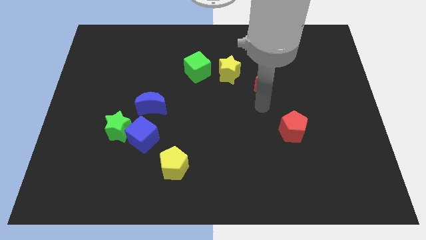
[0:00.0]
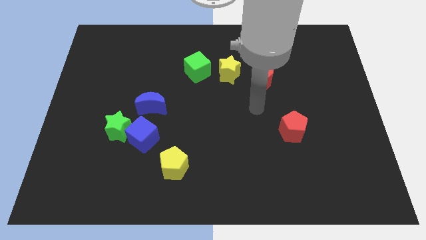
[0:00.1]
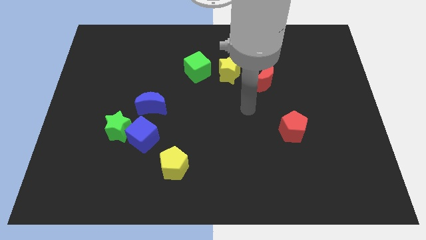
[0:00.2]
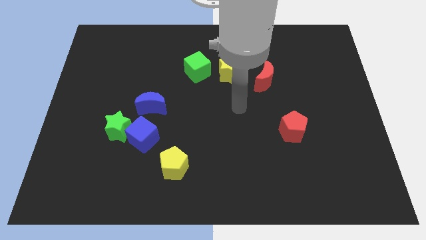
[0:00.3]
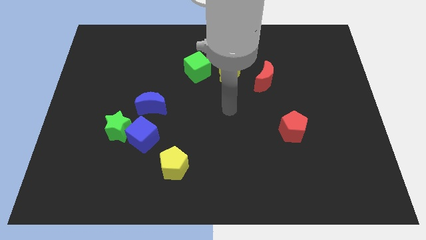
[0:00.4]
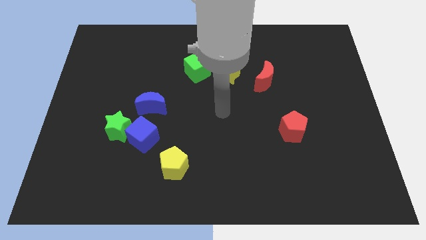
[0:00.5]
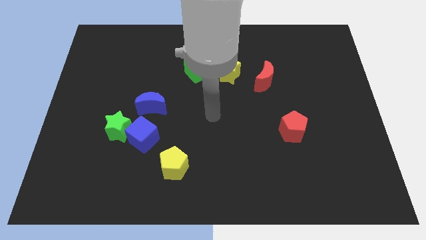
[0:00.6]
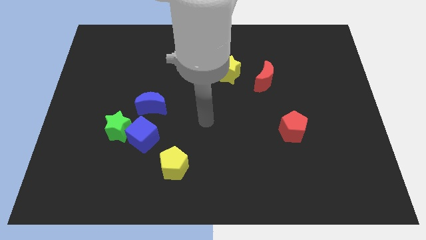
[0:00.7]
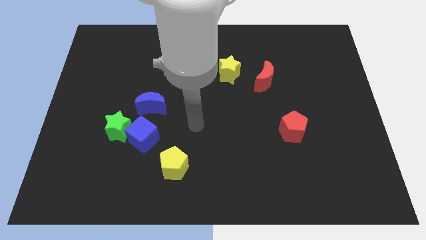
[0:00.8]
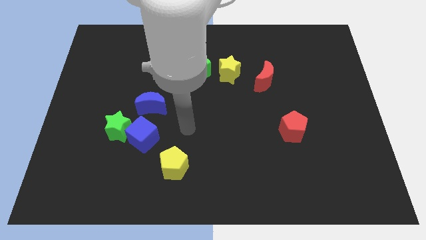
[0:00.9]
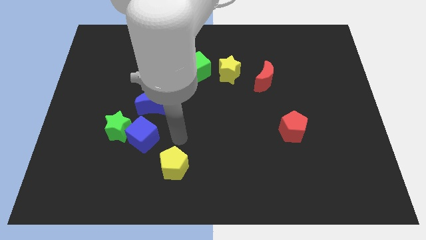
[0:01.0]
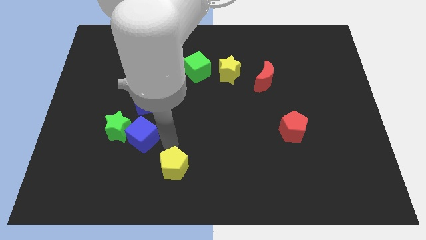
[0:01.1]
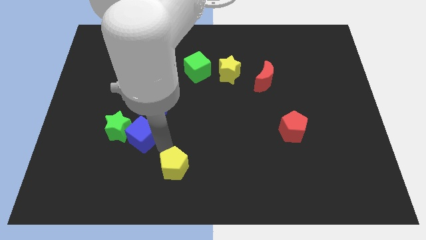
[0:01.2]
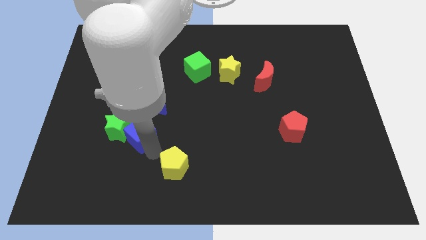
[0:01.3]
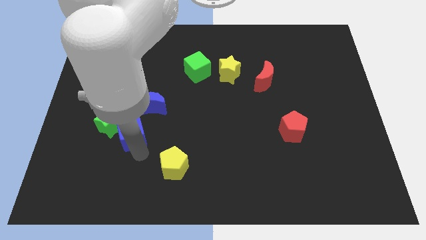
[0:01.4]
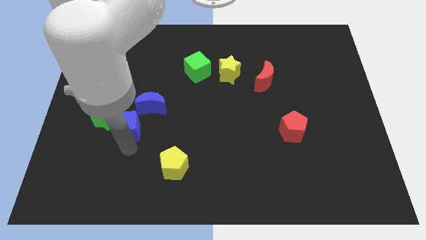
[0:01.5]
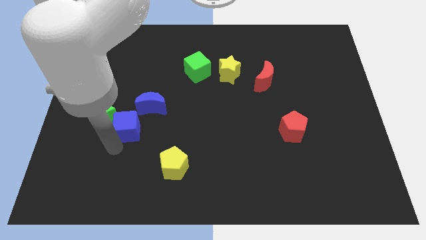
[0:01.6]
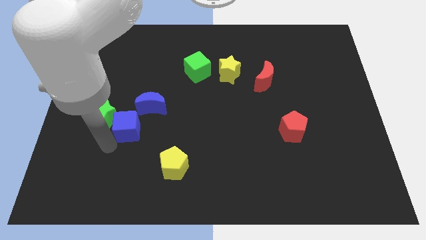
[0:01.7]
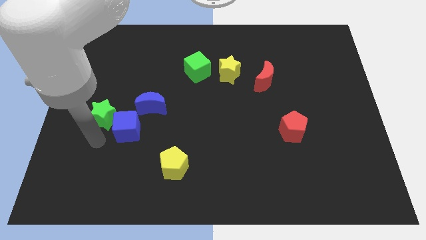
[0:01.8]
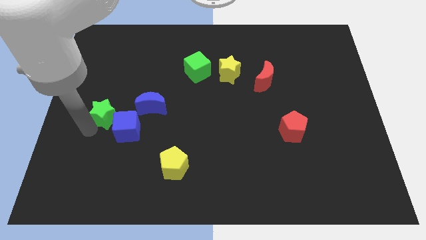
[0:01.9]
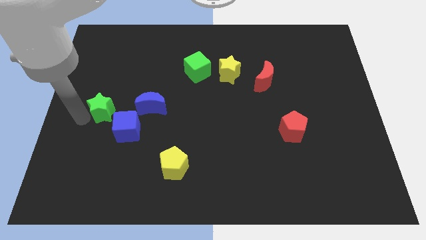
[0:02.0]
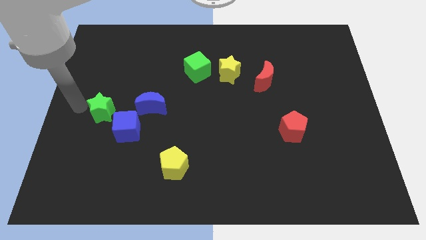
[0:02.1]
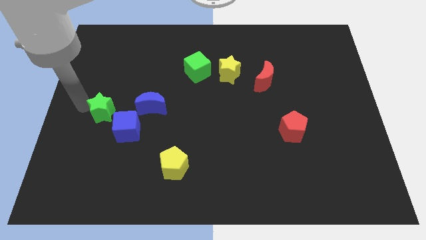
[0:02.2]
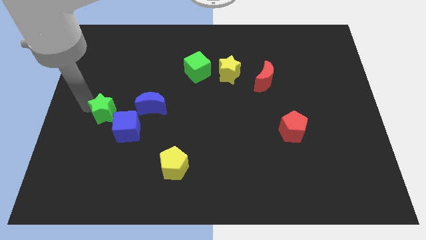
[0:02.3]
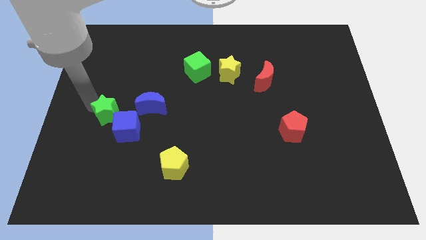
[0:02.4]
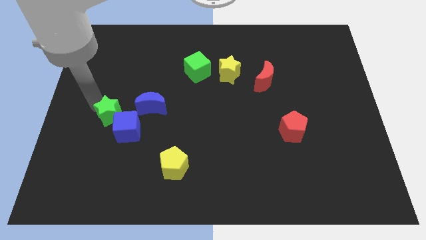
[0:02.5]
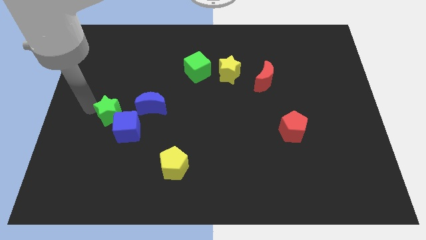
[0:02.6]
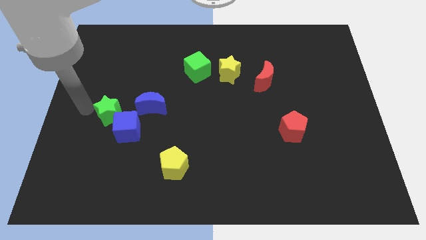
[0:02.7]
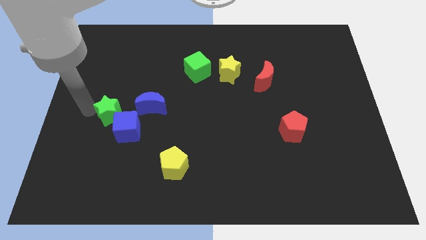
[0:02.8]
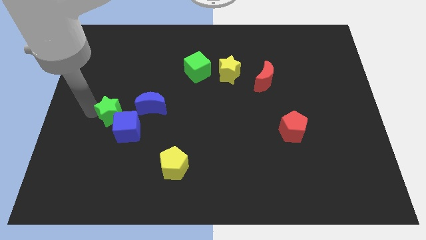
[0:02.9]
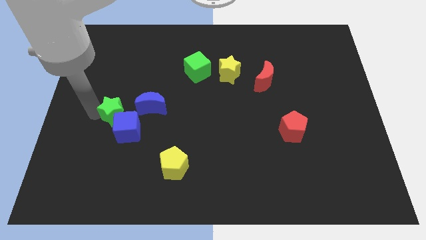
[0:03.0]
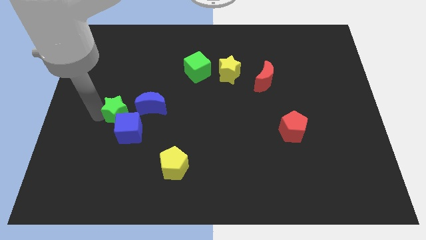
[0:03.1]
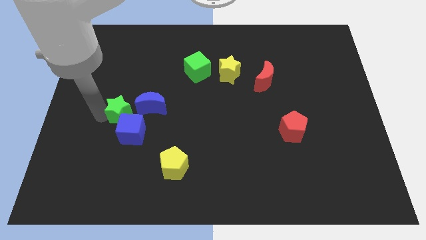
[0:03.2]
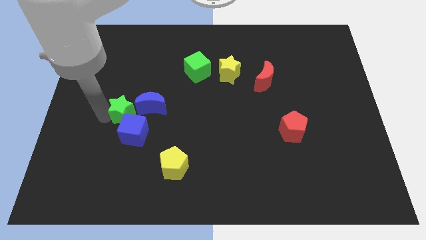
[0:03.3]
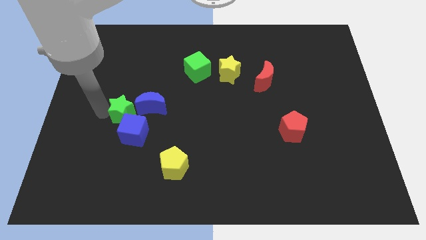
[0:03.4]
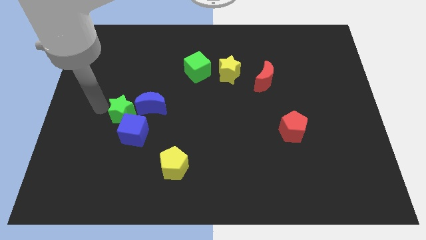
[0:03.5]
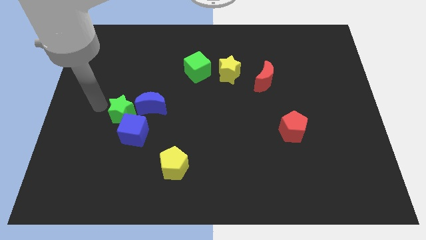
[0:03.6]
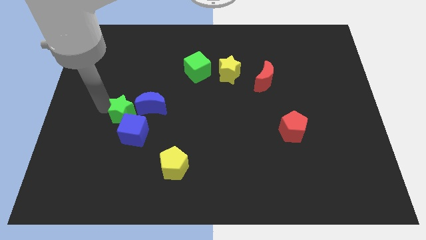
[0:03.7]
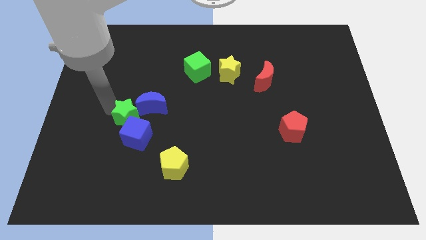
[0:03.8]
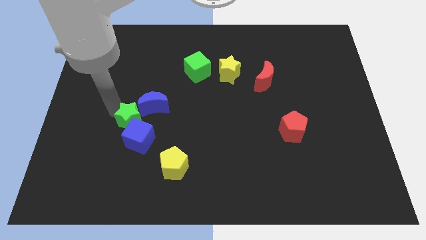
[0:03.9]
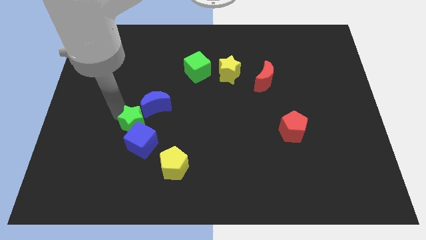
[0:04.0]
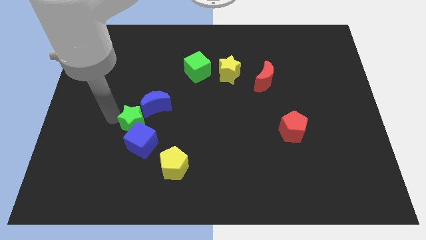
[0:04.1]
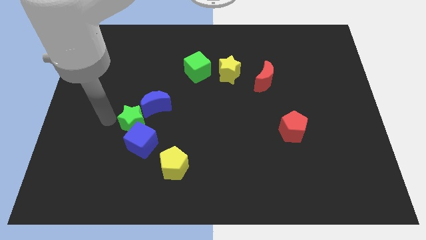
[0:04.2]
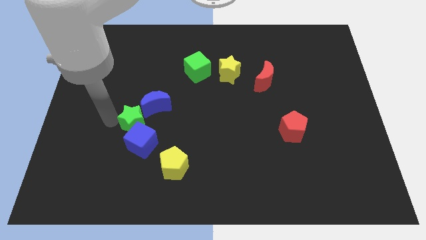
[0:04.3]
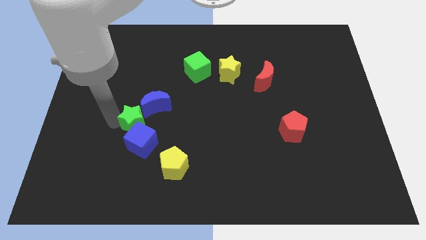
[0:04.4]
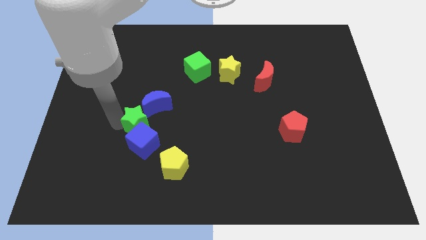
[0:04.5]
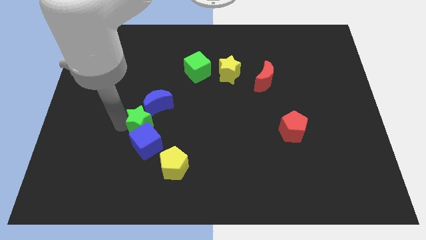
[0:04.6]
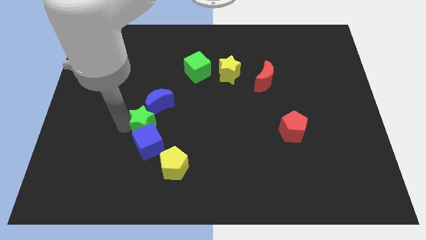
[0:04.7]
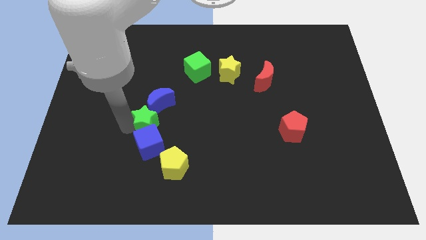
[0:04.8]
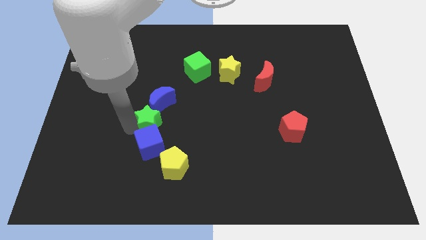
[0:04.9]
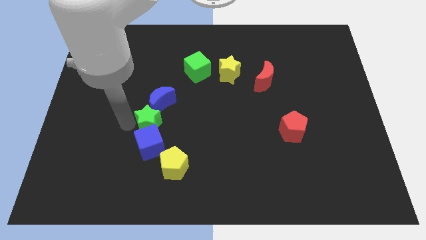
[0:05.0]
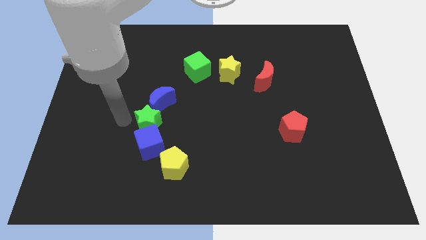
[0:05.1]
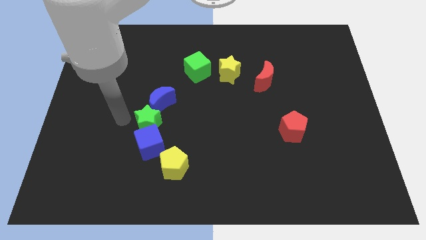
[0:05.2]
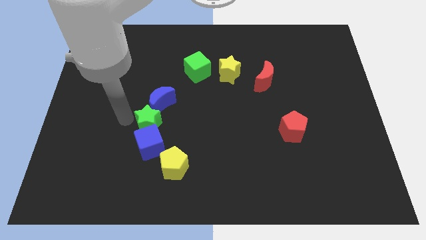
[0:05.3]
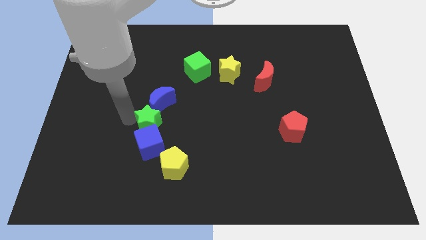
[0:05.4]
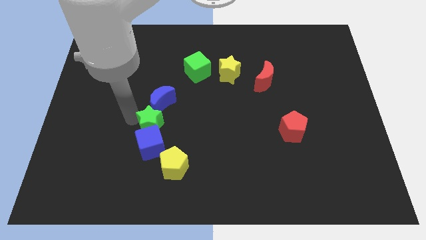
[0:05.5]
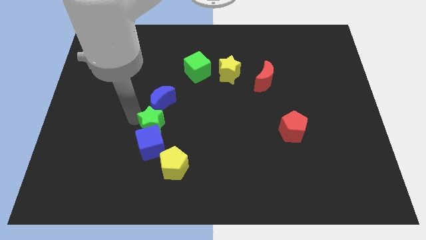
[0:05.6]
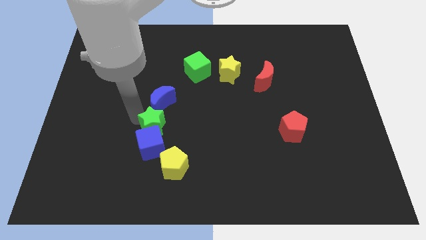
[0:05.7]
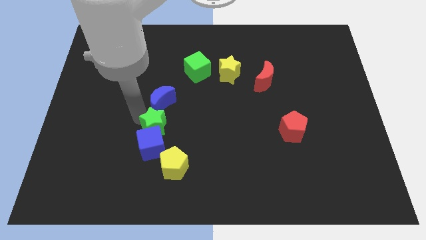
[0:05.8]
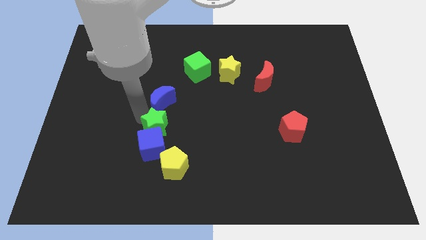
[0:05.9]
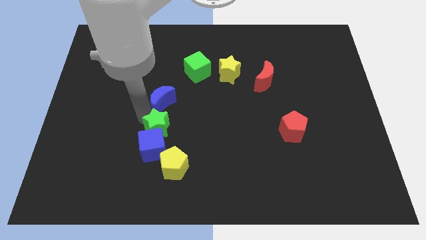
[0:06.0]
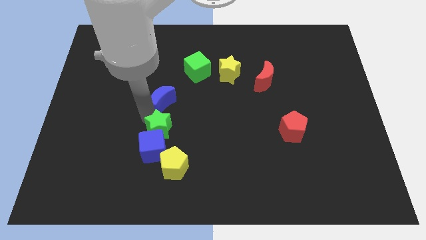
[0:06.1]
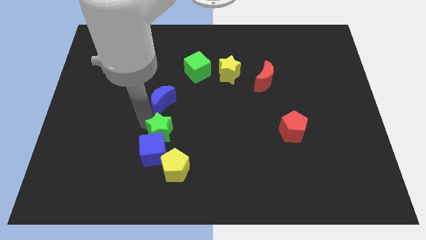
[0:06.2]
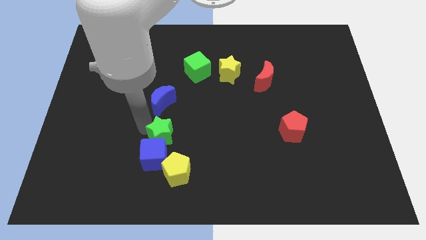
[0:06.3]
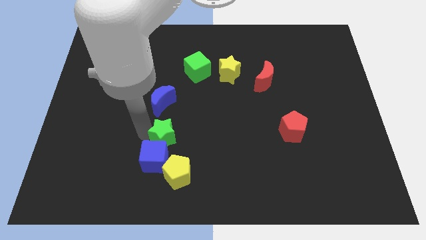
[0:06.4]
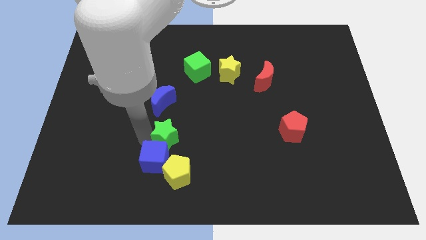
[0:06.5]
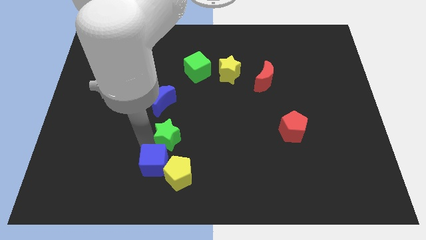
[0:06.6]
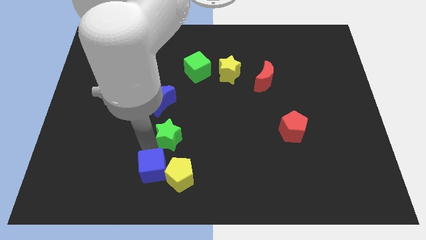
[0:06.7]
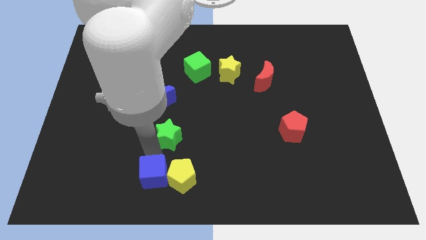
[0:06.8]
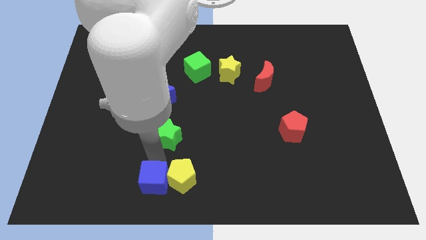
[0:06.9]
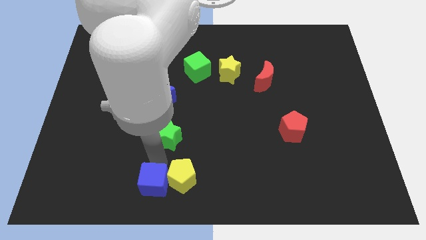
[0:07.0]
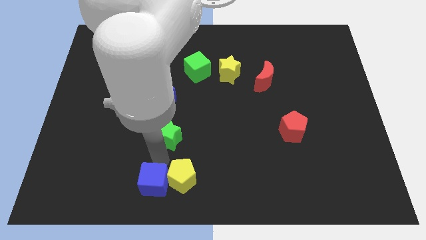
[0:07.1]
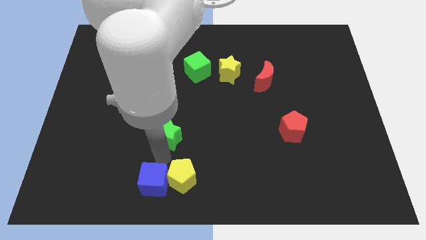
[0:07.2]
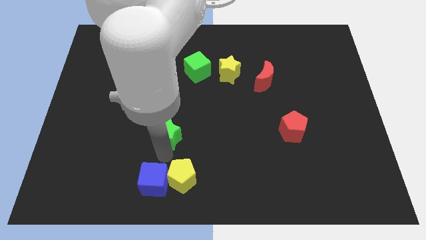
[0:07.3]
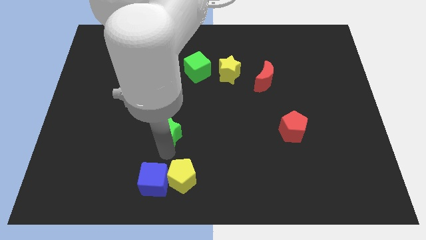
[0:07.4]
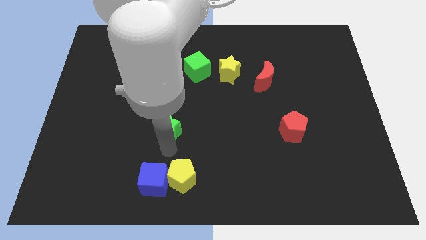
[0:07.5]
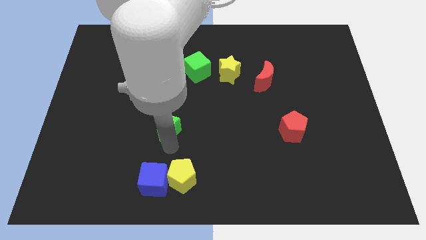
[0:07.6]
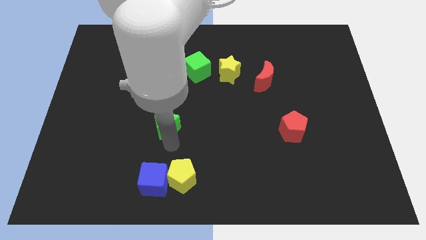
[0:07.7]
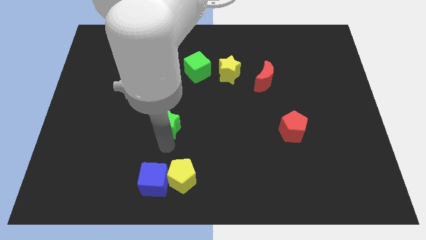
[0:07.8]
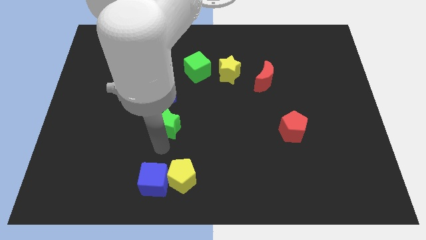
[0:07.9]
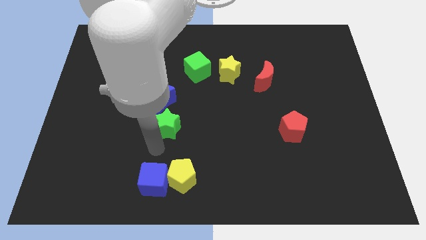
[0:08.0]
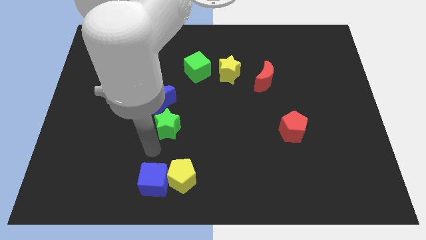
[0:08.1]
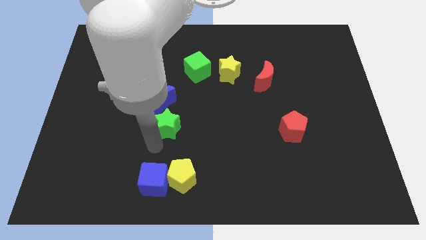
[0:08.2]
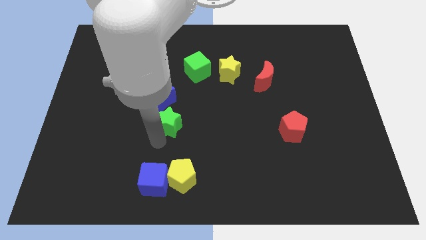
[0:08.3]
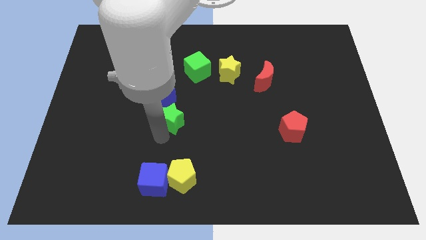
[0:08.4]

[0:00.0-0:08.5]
move the green star upwards and to the right diagonally somewhat
